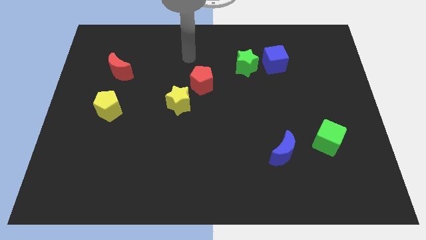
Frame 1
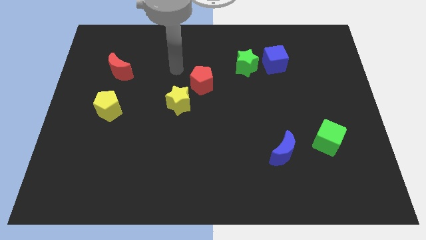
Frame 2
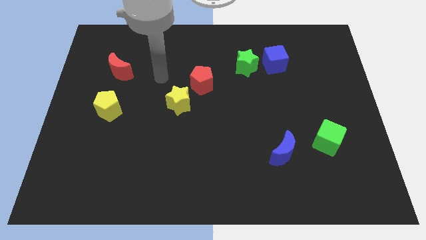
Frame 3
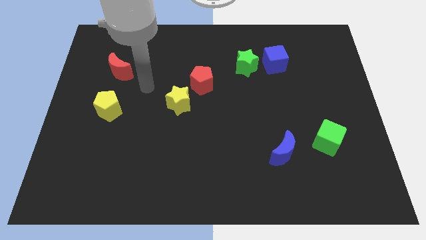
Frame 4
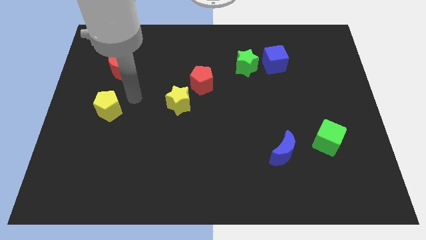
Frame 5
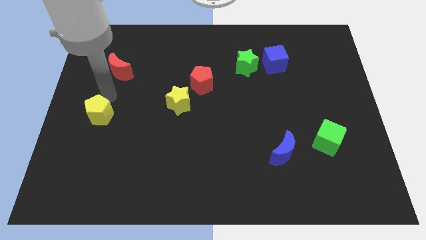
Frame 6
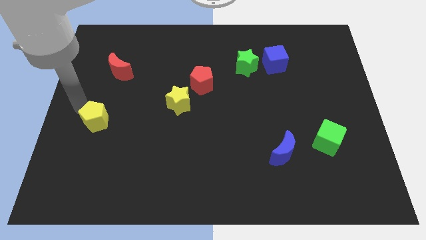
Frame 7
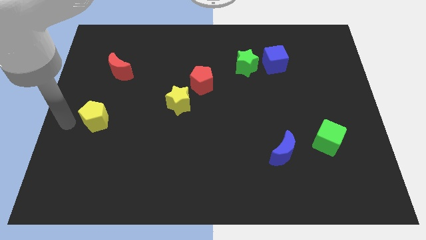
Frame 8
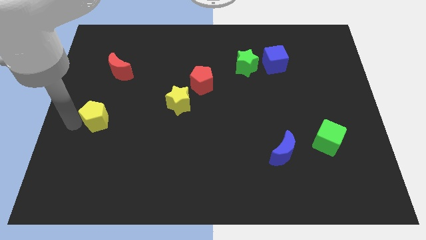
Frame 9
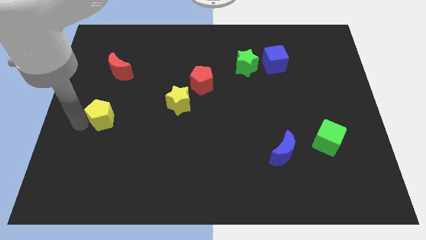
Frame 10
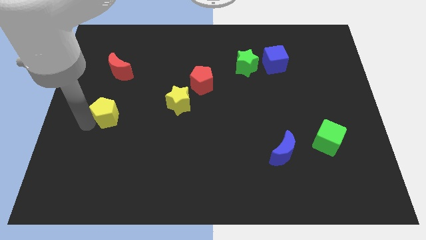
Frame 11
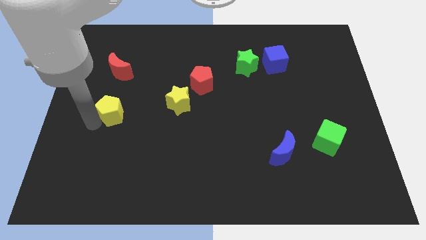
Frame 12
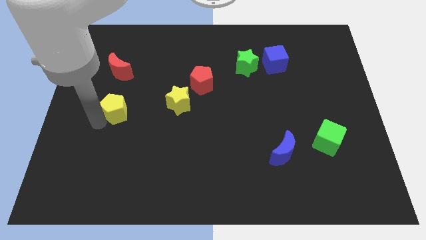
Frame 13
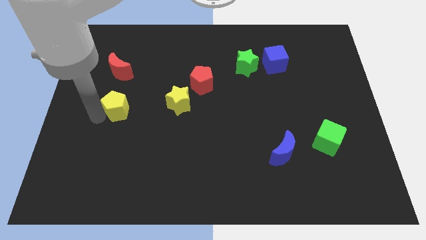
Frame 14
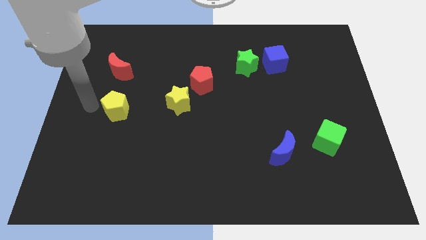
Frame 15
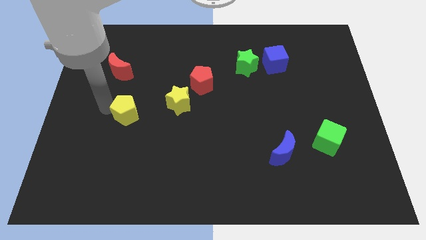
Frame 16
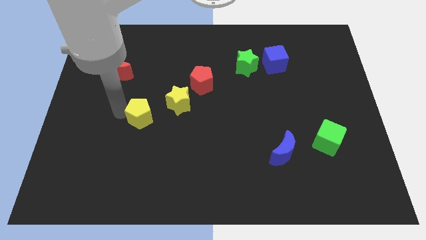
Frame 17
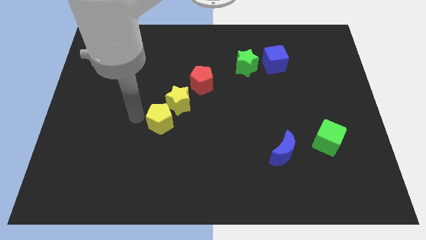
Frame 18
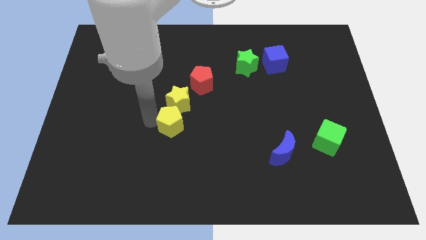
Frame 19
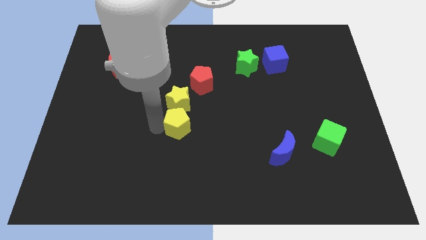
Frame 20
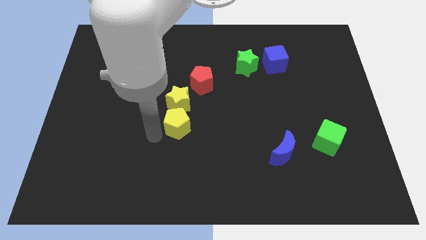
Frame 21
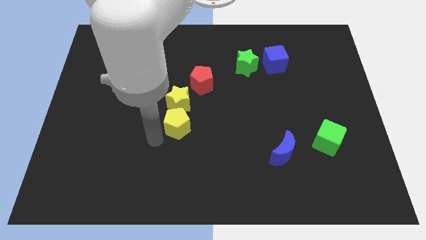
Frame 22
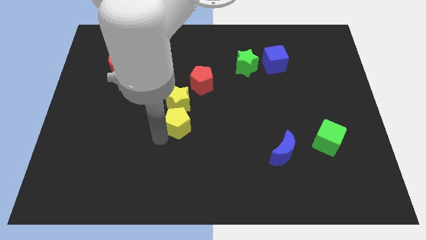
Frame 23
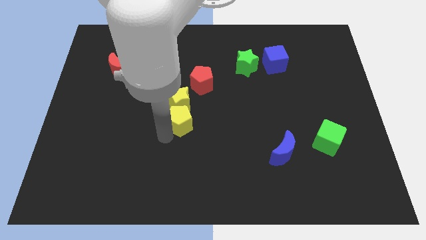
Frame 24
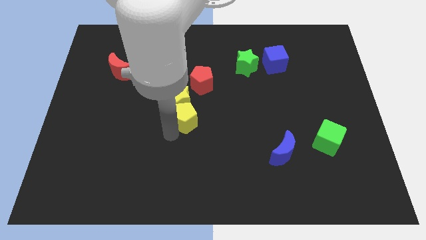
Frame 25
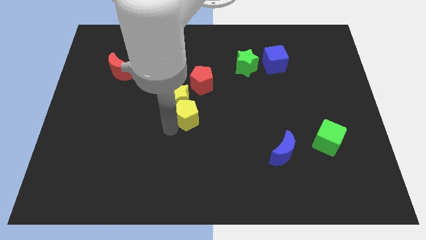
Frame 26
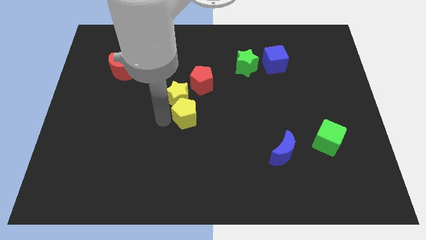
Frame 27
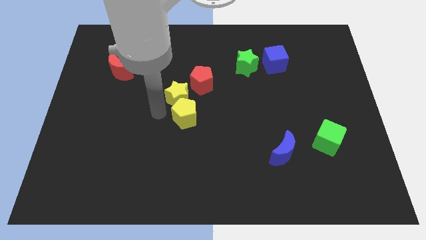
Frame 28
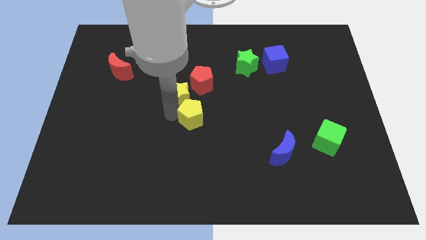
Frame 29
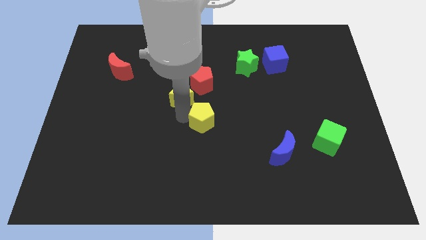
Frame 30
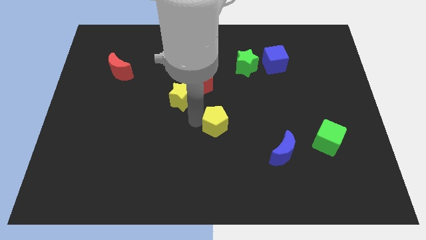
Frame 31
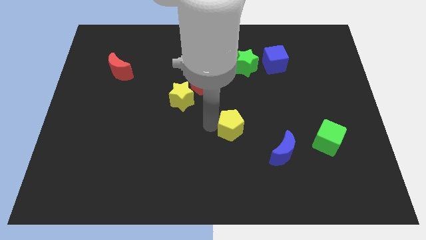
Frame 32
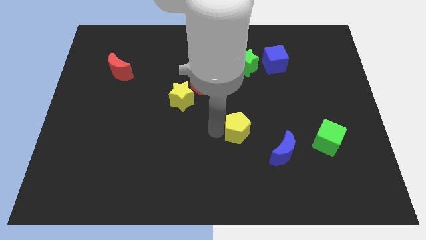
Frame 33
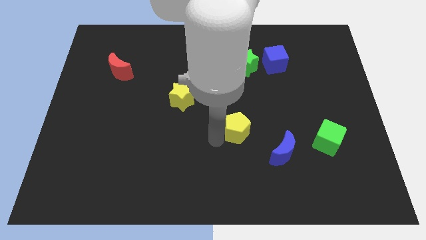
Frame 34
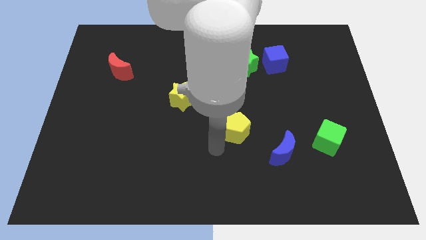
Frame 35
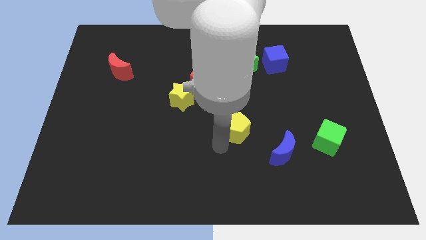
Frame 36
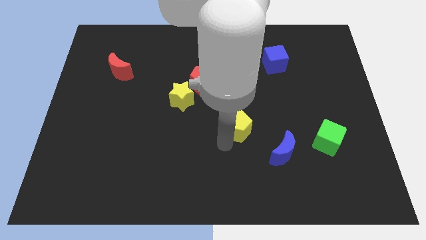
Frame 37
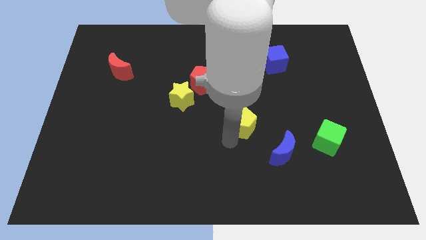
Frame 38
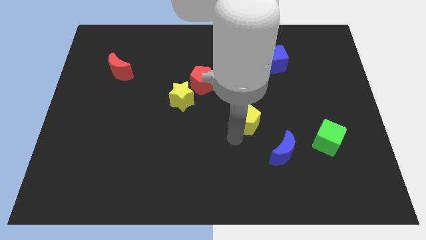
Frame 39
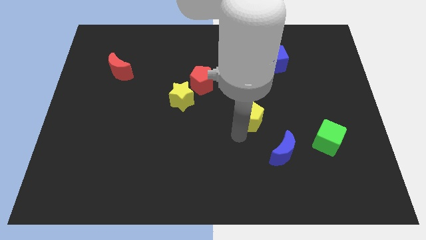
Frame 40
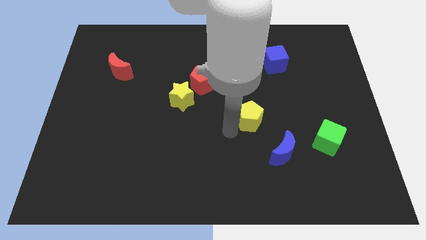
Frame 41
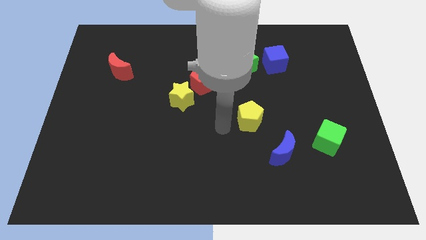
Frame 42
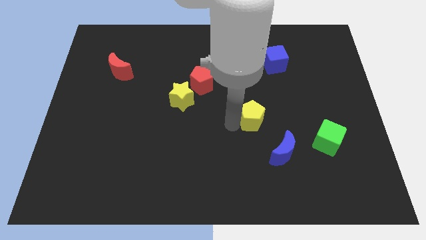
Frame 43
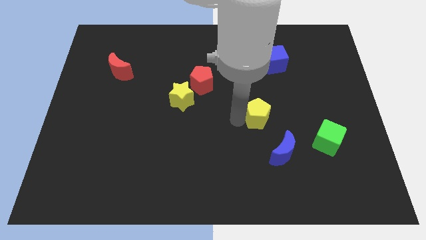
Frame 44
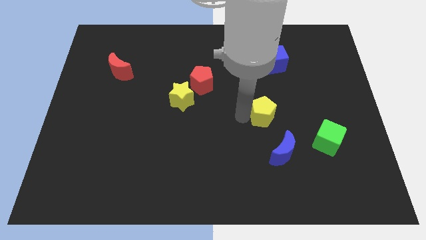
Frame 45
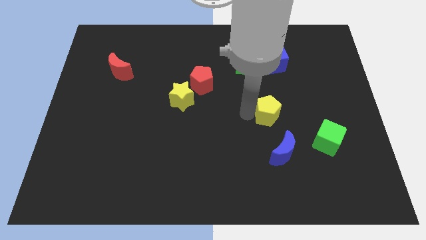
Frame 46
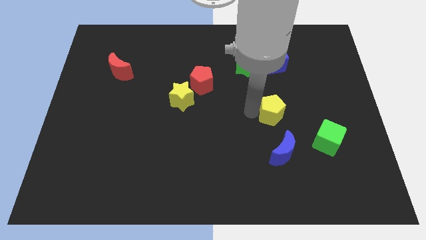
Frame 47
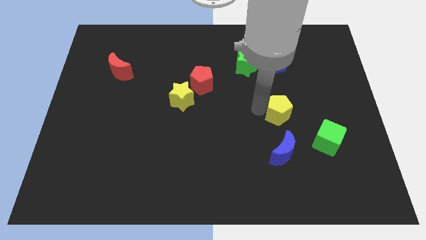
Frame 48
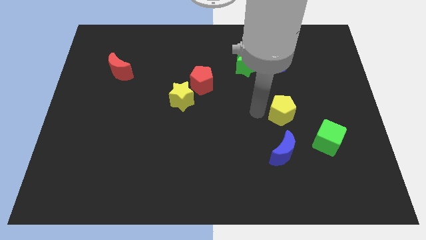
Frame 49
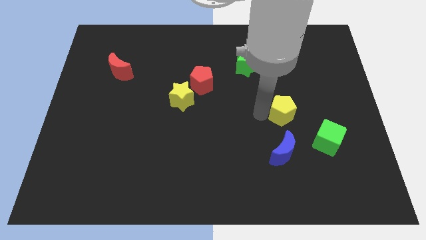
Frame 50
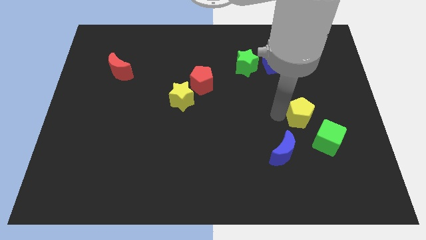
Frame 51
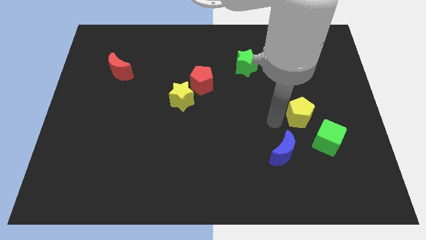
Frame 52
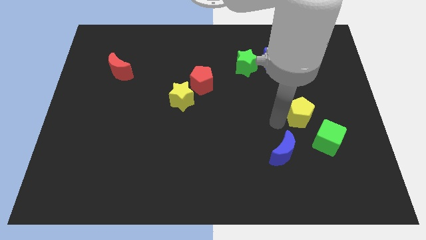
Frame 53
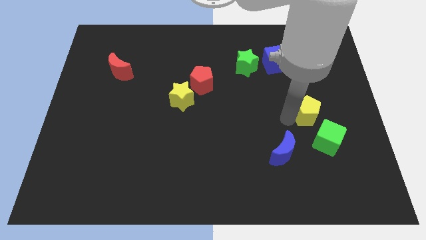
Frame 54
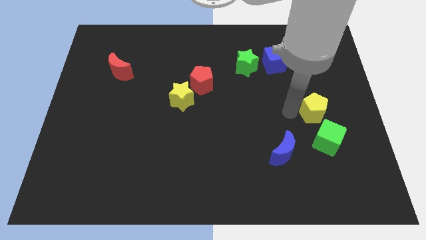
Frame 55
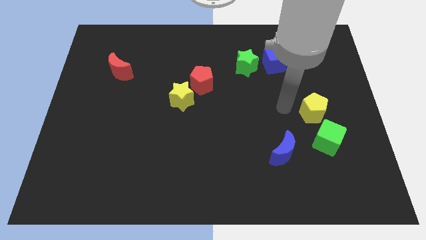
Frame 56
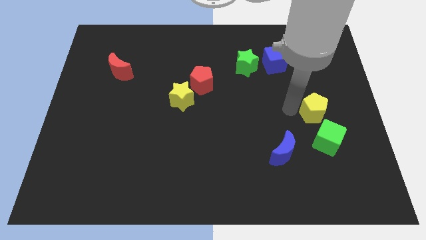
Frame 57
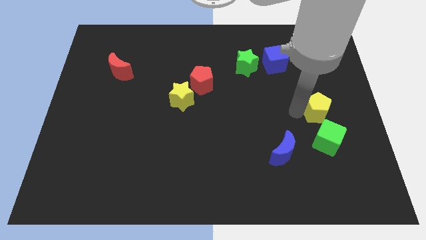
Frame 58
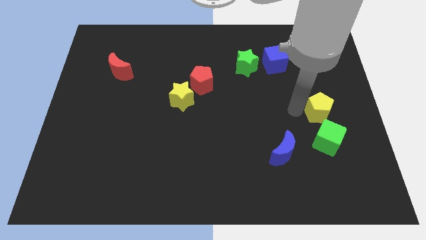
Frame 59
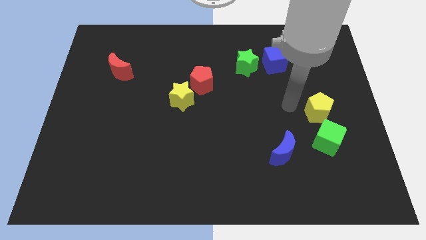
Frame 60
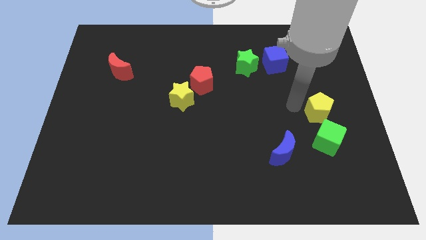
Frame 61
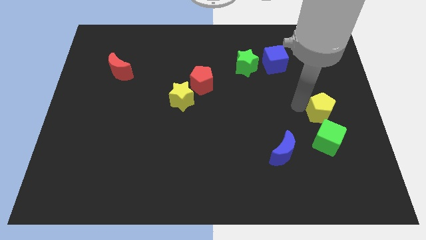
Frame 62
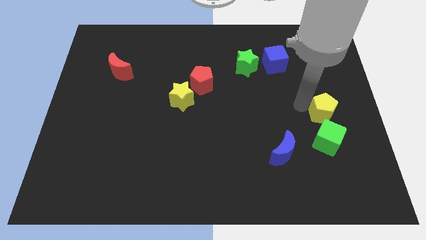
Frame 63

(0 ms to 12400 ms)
put the yellow pentagon to the right side of the board
